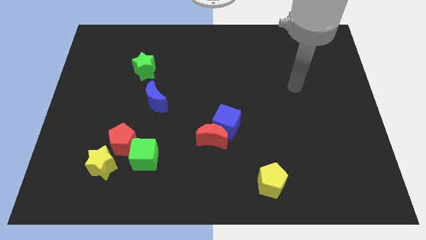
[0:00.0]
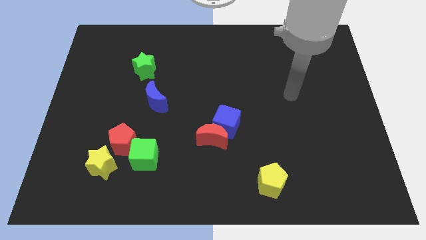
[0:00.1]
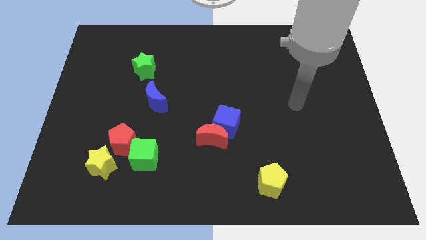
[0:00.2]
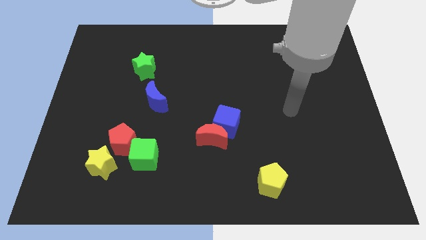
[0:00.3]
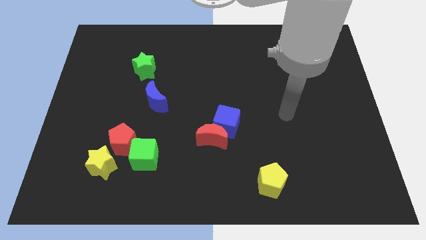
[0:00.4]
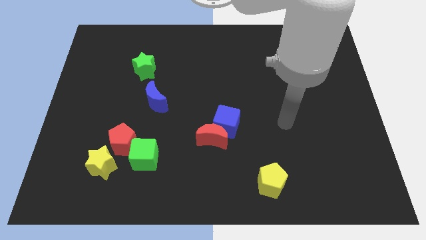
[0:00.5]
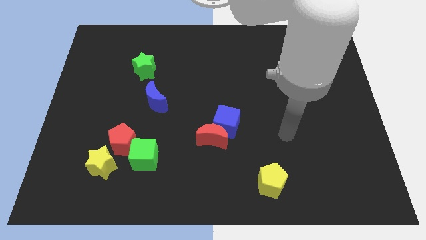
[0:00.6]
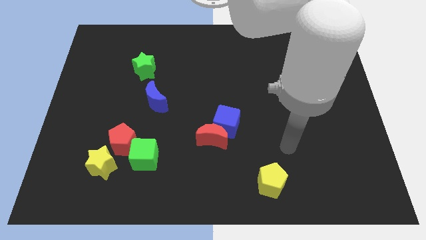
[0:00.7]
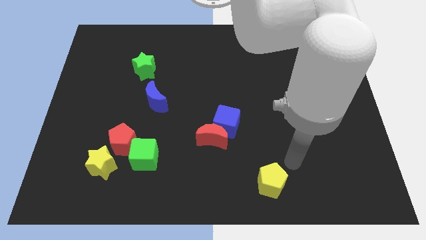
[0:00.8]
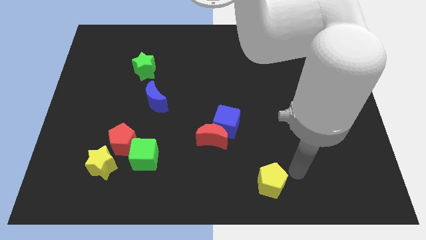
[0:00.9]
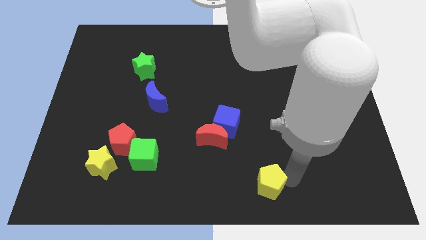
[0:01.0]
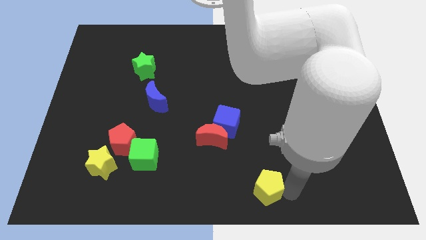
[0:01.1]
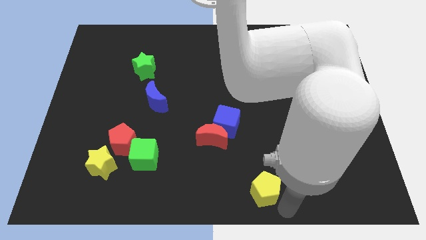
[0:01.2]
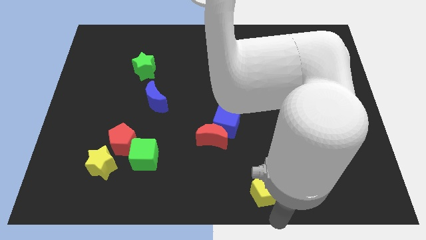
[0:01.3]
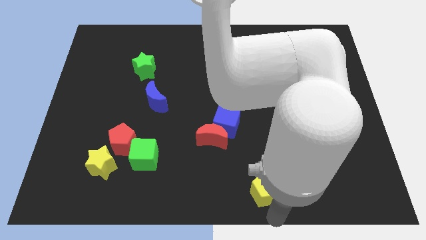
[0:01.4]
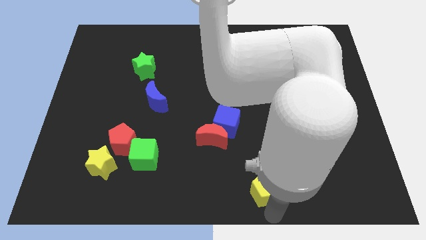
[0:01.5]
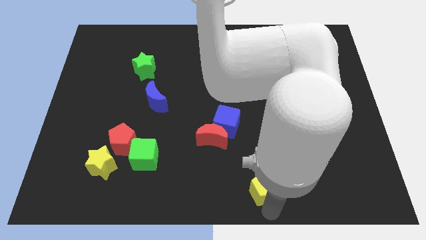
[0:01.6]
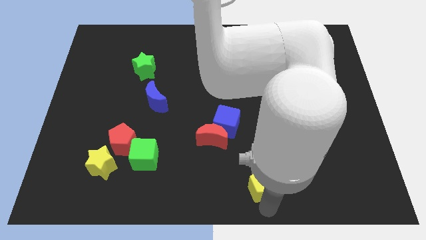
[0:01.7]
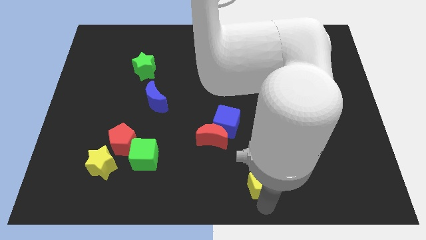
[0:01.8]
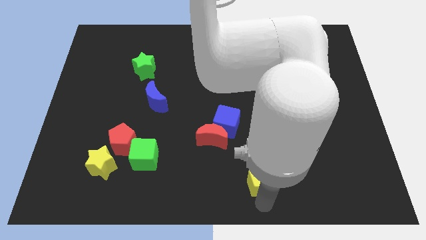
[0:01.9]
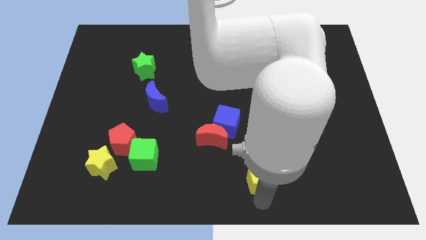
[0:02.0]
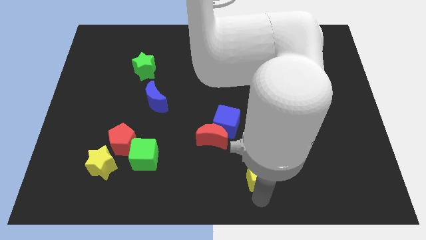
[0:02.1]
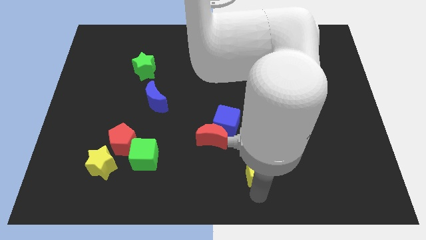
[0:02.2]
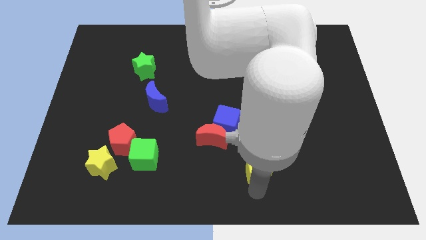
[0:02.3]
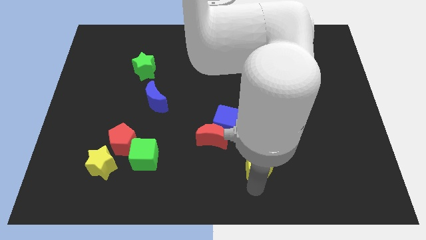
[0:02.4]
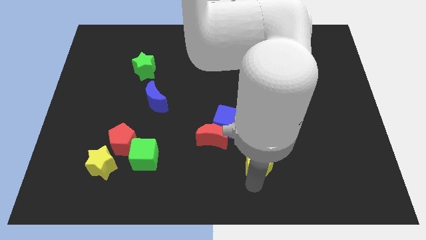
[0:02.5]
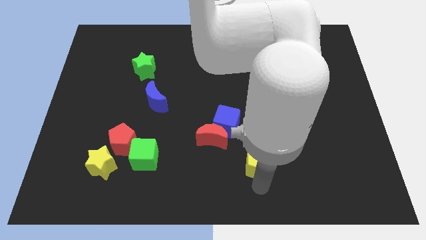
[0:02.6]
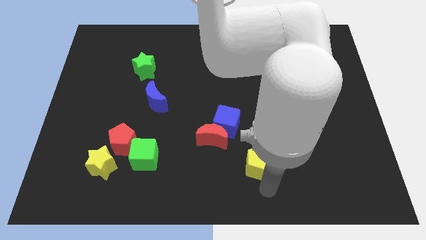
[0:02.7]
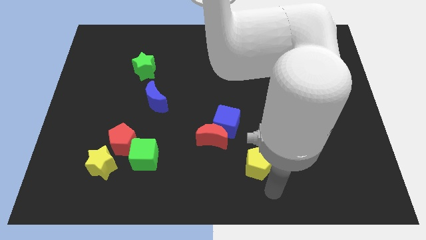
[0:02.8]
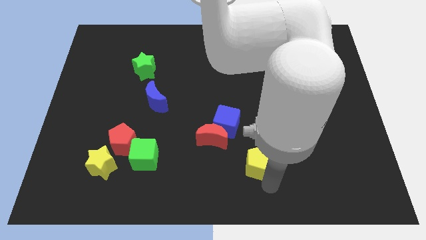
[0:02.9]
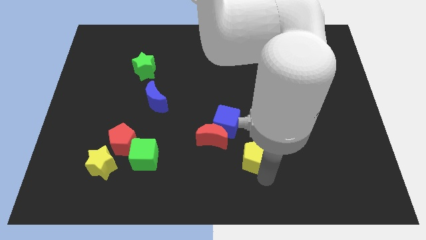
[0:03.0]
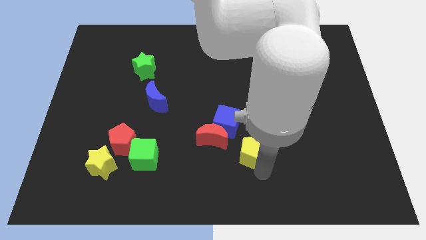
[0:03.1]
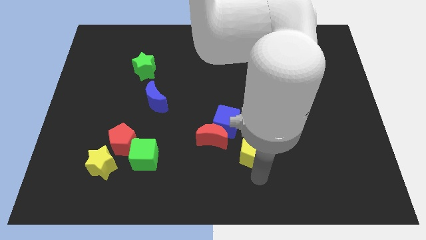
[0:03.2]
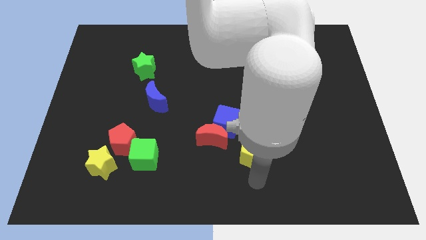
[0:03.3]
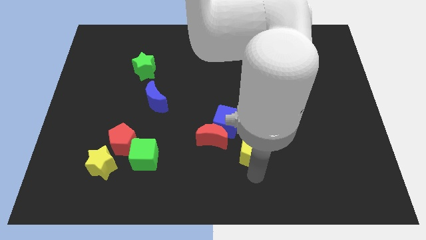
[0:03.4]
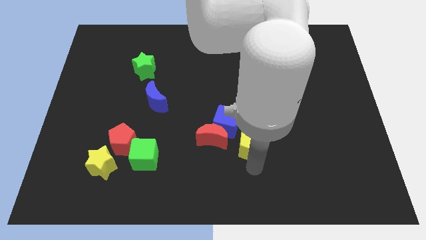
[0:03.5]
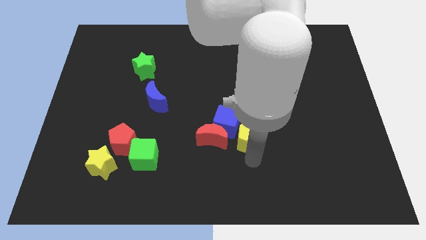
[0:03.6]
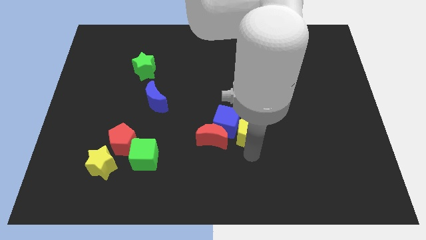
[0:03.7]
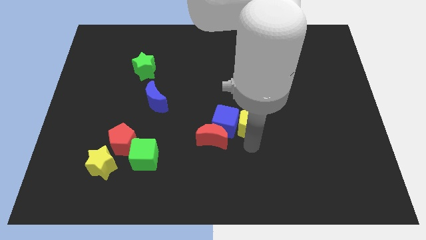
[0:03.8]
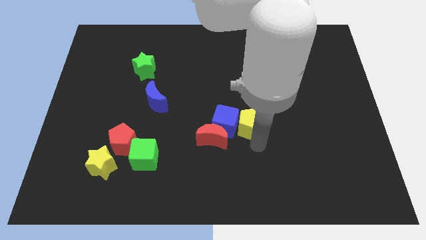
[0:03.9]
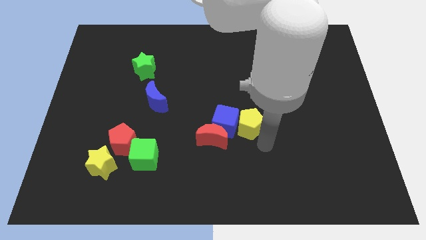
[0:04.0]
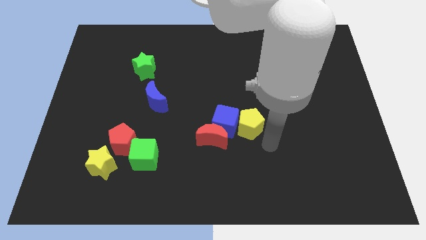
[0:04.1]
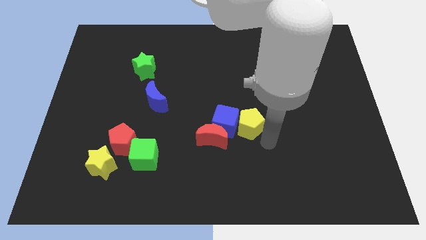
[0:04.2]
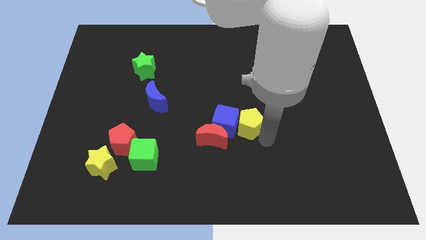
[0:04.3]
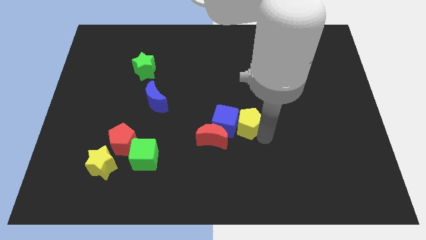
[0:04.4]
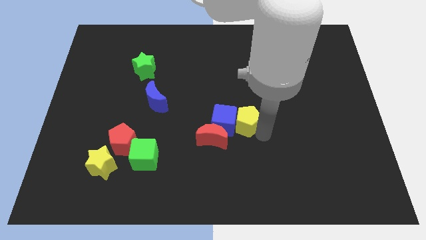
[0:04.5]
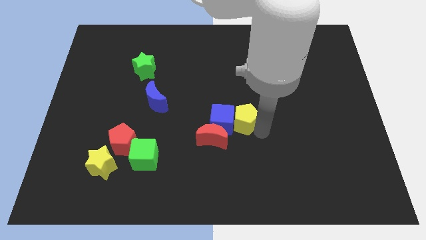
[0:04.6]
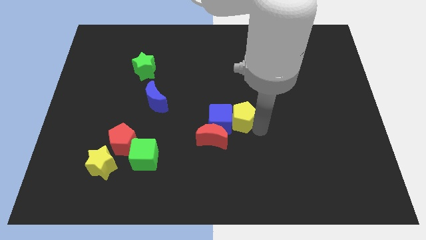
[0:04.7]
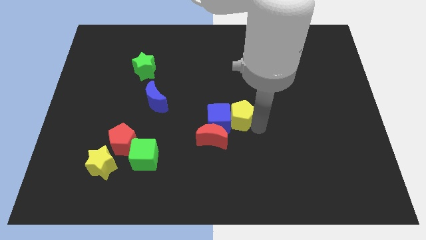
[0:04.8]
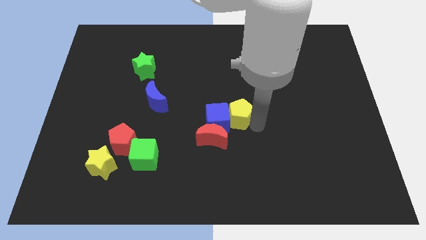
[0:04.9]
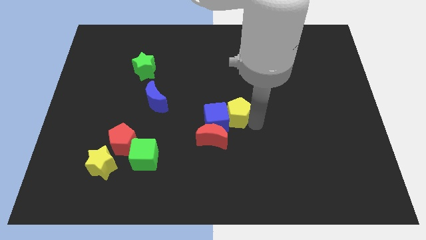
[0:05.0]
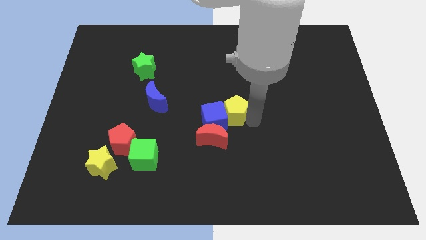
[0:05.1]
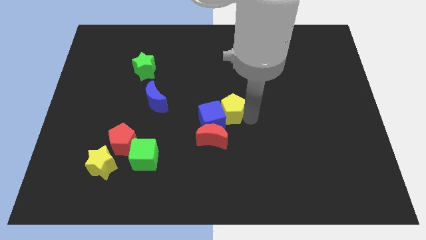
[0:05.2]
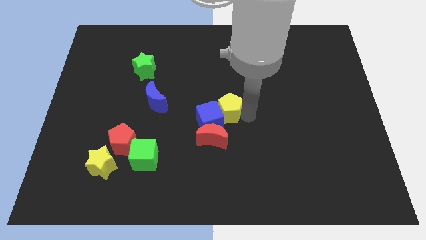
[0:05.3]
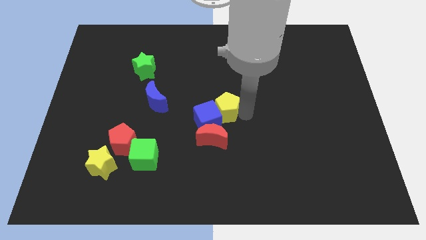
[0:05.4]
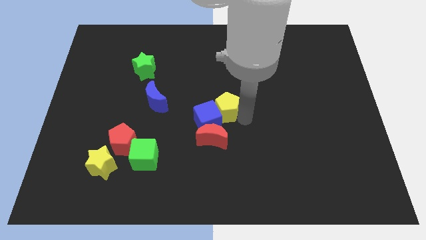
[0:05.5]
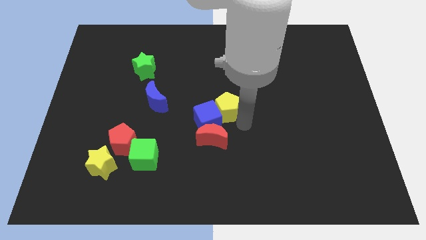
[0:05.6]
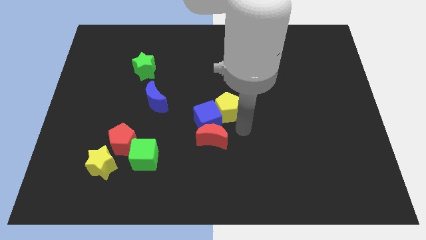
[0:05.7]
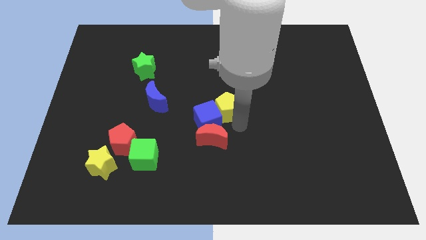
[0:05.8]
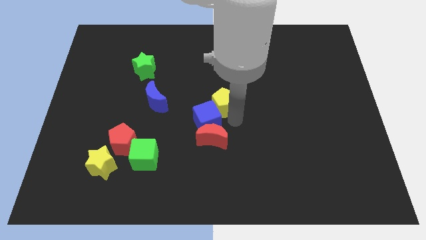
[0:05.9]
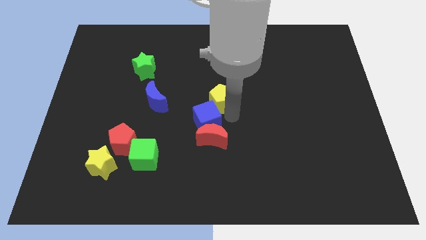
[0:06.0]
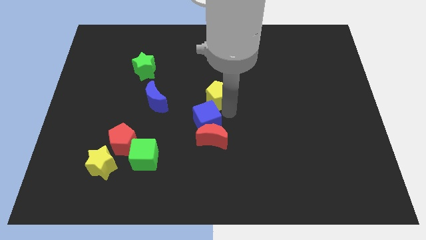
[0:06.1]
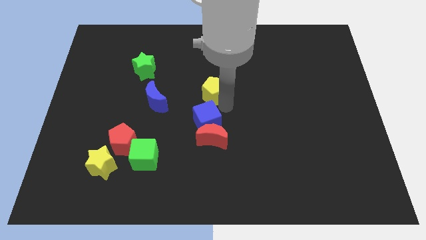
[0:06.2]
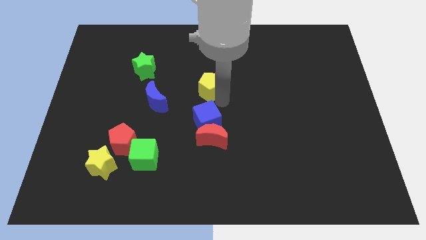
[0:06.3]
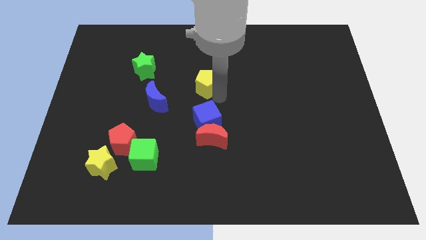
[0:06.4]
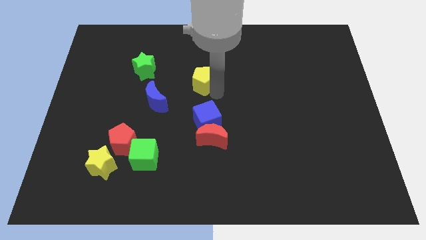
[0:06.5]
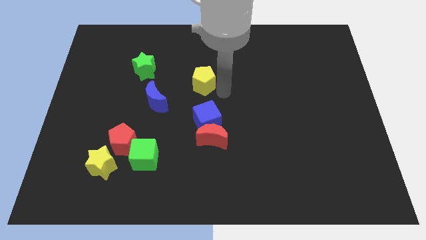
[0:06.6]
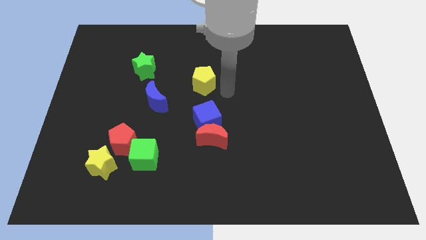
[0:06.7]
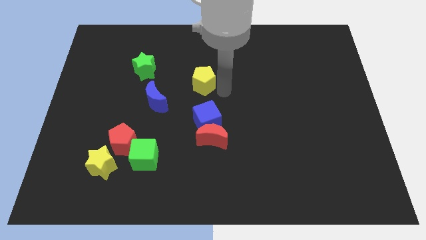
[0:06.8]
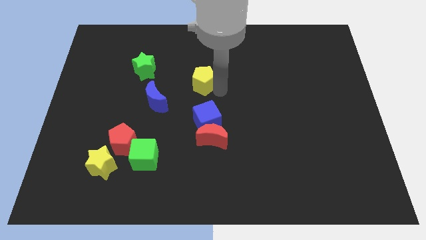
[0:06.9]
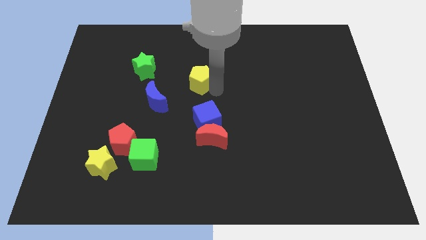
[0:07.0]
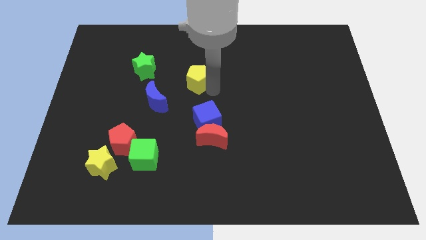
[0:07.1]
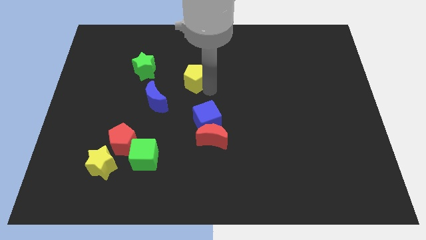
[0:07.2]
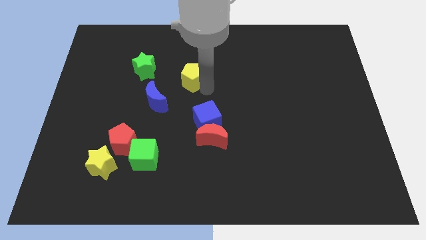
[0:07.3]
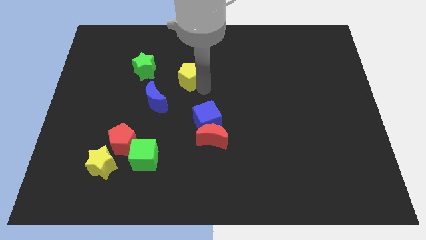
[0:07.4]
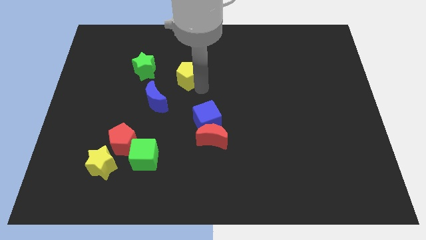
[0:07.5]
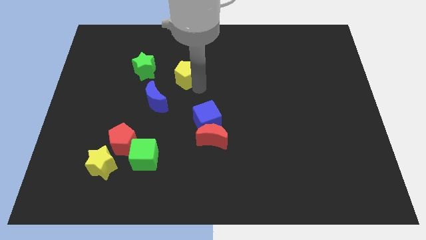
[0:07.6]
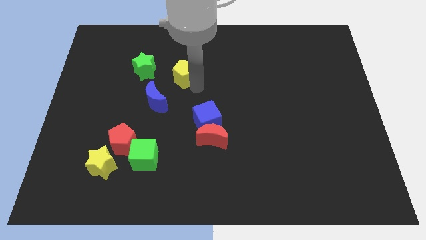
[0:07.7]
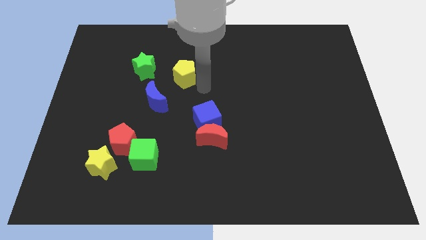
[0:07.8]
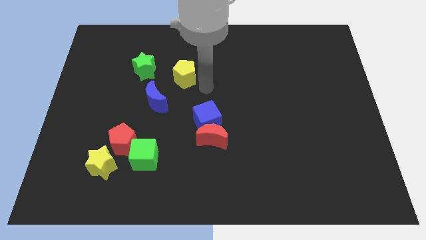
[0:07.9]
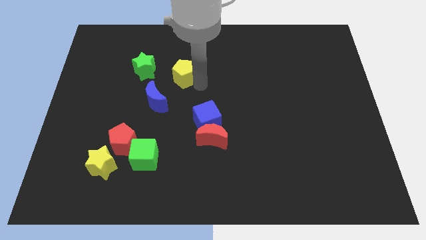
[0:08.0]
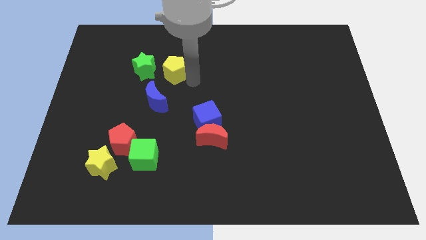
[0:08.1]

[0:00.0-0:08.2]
move the yellow pentagon above the blue moon
